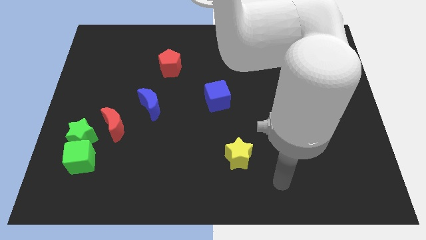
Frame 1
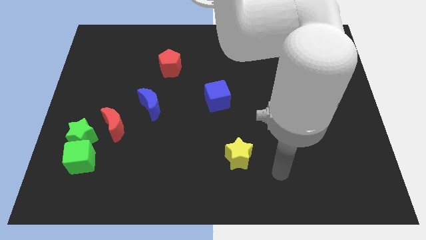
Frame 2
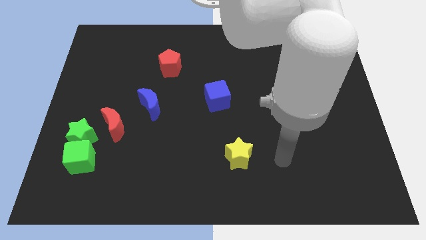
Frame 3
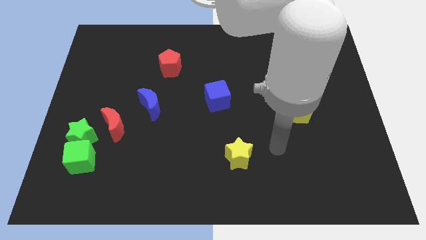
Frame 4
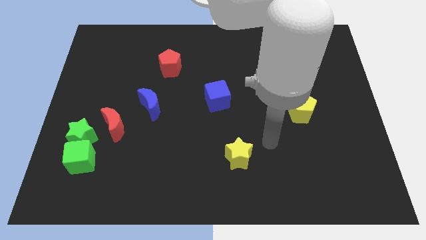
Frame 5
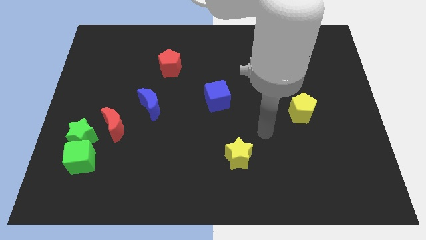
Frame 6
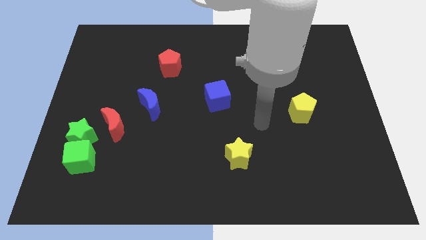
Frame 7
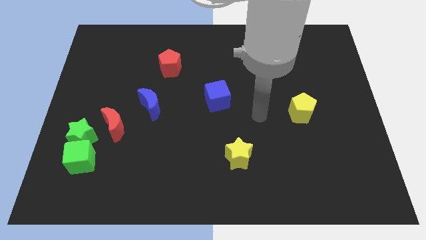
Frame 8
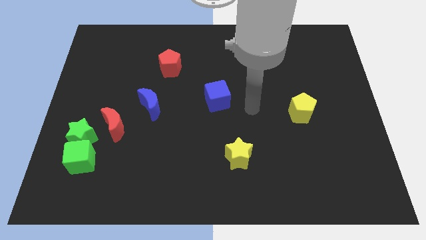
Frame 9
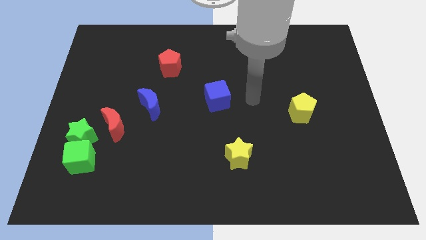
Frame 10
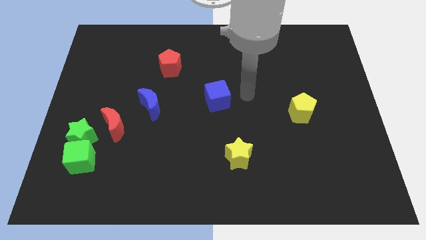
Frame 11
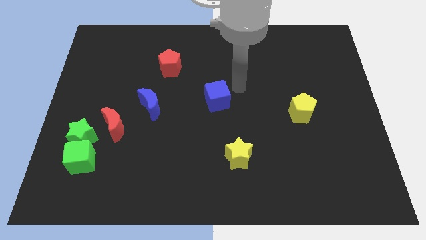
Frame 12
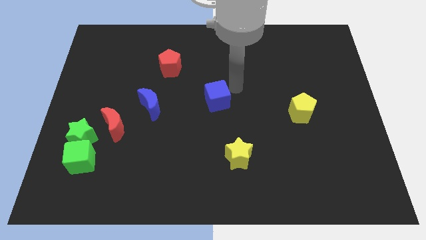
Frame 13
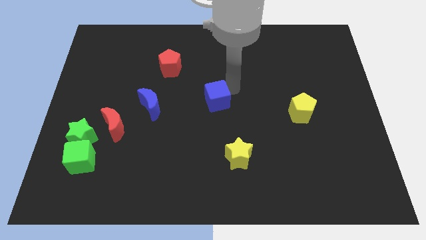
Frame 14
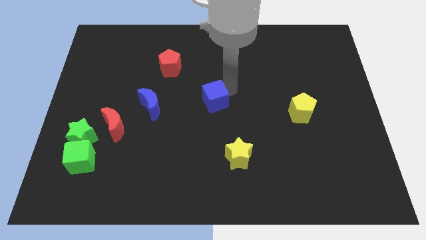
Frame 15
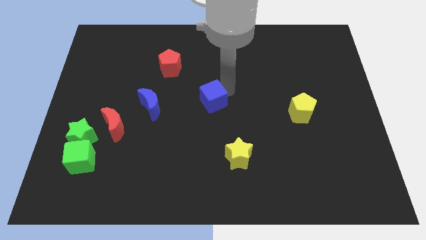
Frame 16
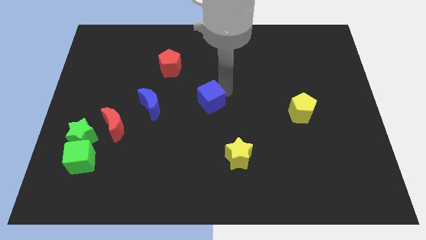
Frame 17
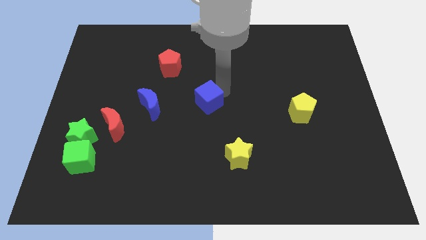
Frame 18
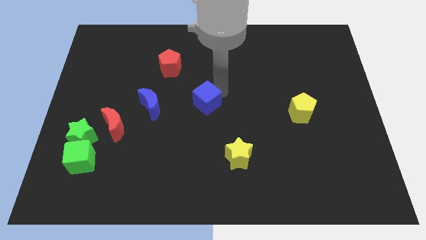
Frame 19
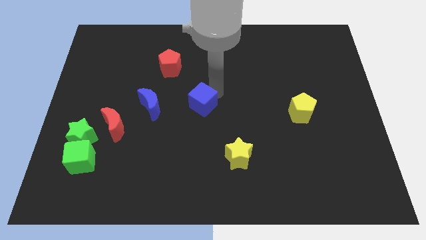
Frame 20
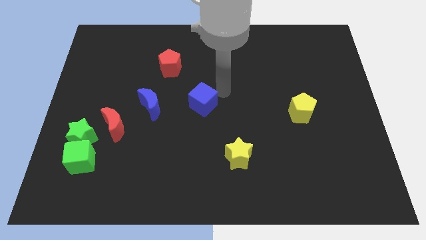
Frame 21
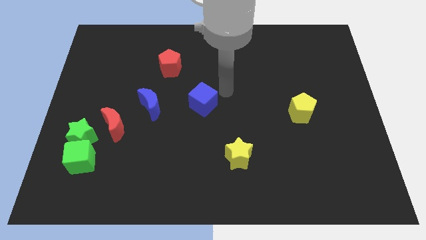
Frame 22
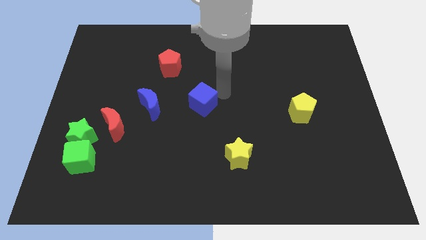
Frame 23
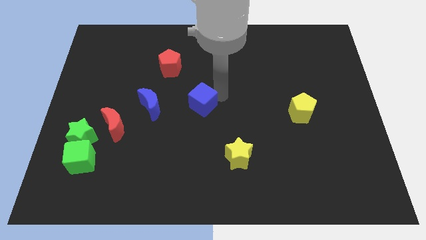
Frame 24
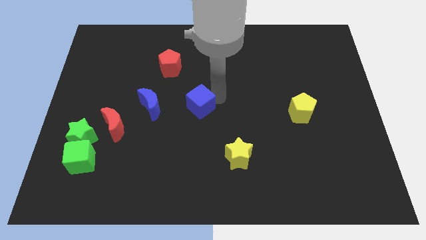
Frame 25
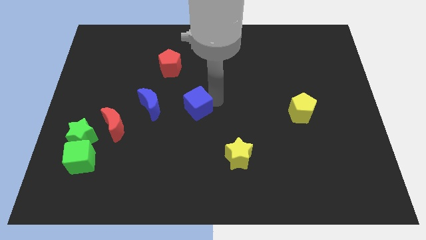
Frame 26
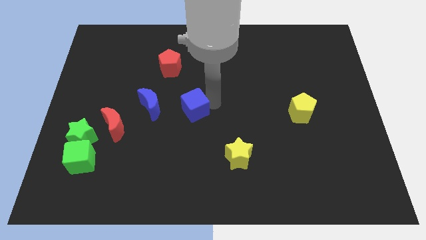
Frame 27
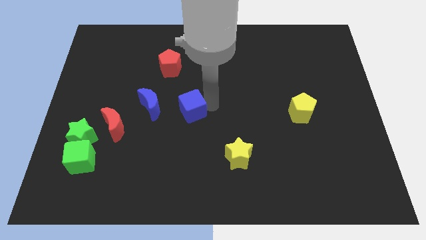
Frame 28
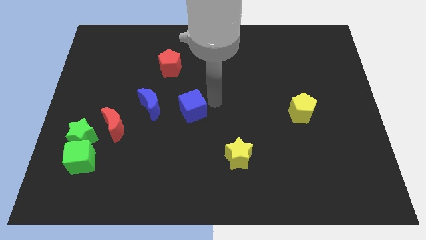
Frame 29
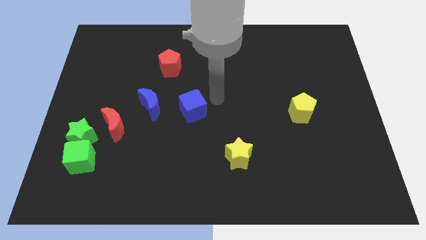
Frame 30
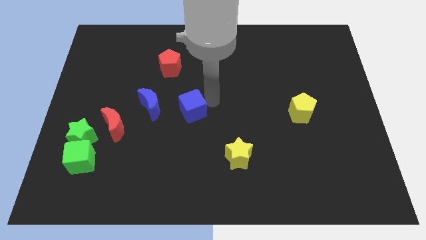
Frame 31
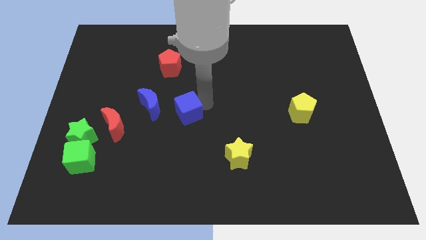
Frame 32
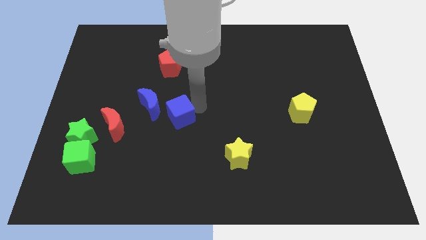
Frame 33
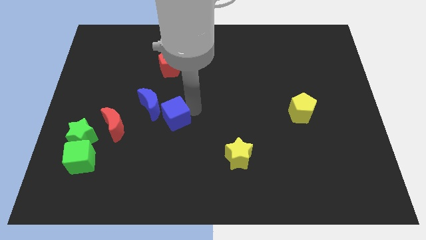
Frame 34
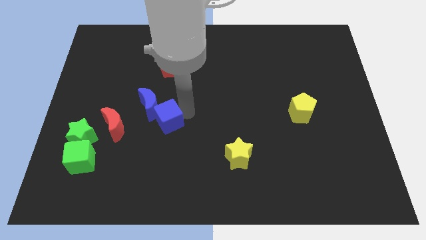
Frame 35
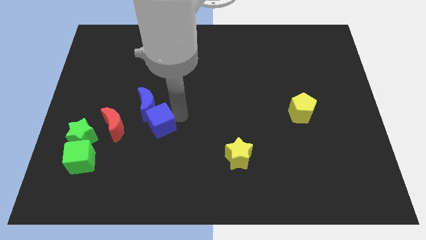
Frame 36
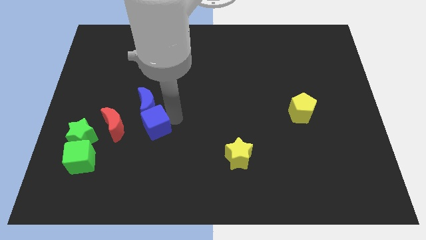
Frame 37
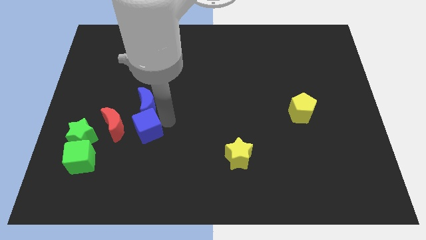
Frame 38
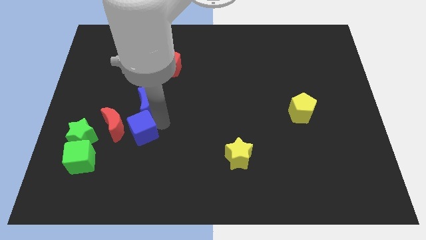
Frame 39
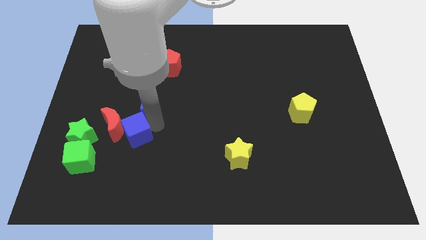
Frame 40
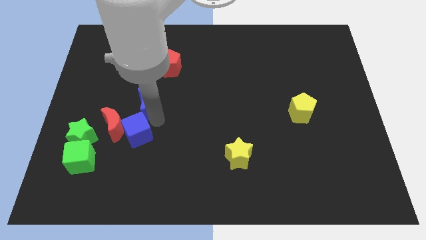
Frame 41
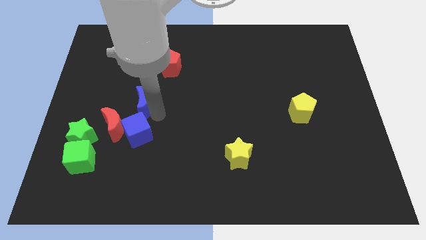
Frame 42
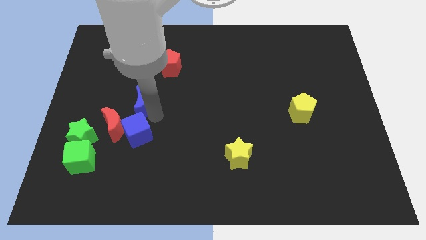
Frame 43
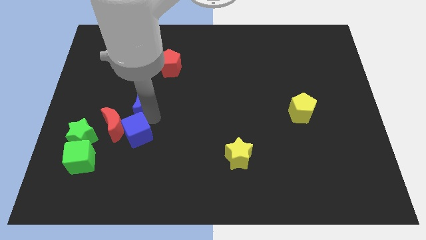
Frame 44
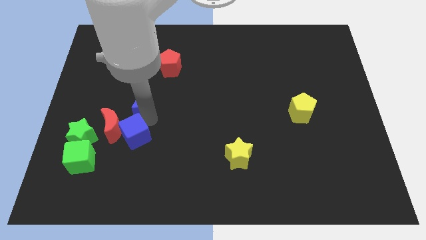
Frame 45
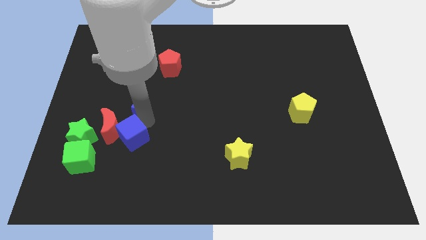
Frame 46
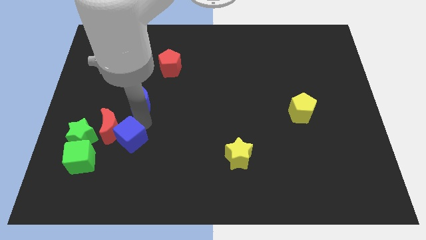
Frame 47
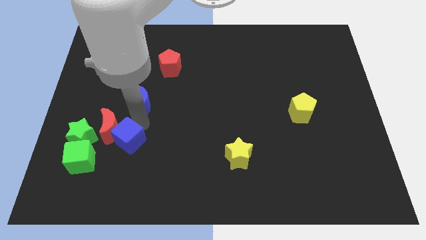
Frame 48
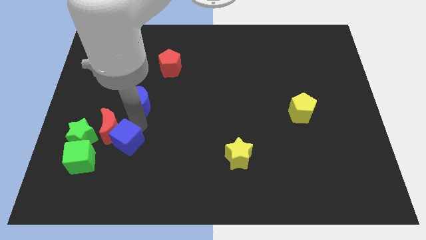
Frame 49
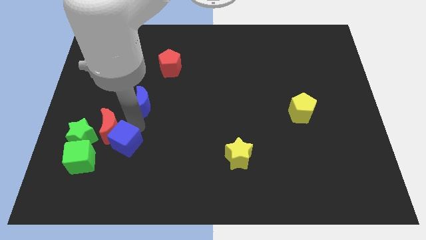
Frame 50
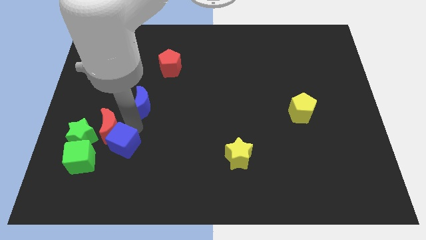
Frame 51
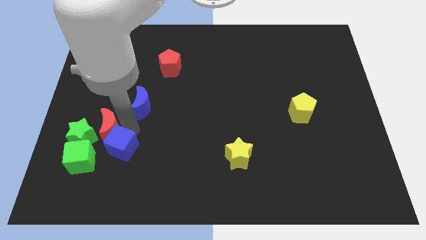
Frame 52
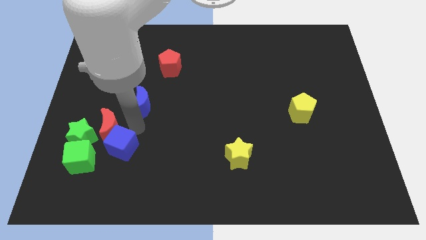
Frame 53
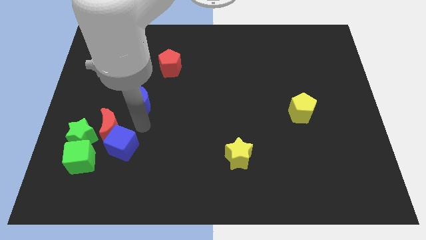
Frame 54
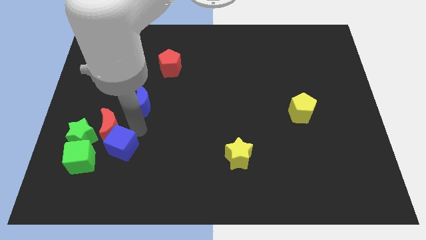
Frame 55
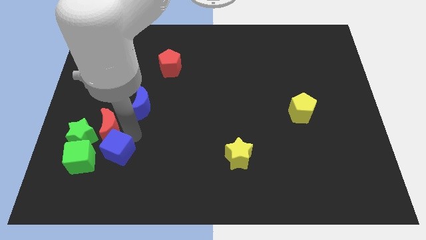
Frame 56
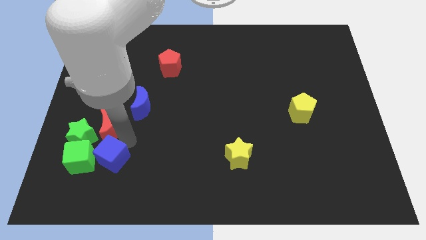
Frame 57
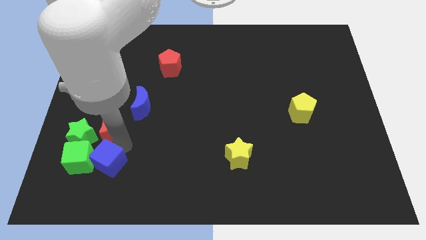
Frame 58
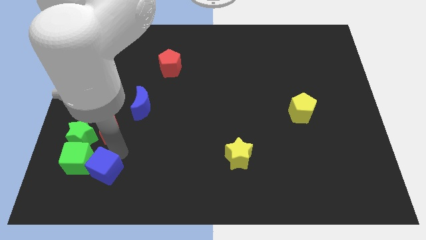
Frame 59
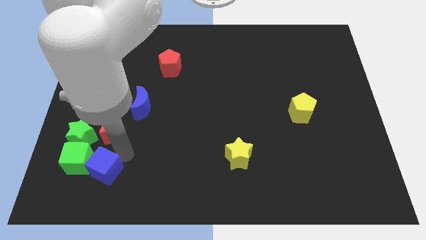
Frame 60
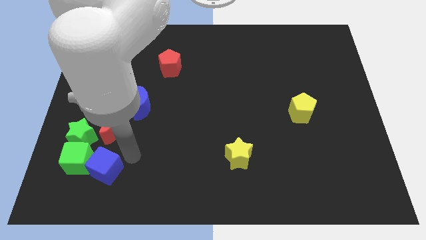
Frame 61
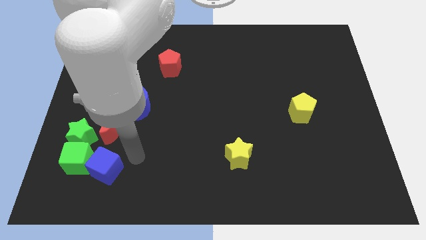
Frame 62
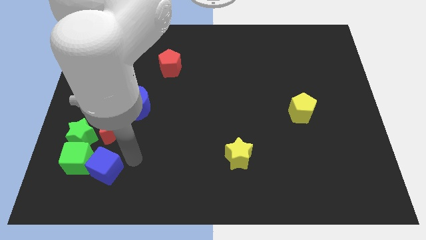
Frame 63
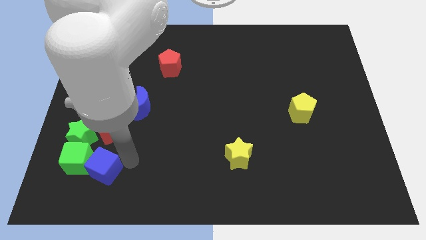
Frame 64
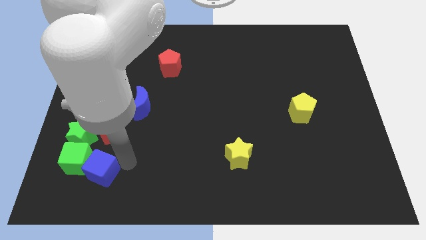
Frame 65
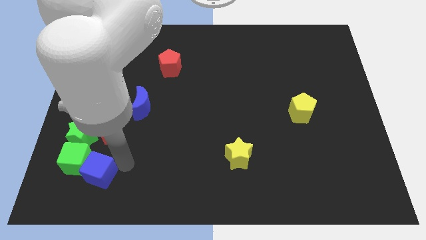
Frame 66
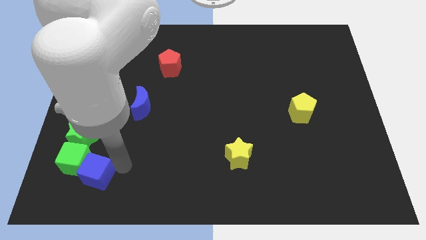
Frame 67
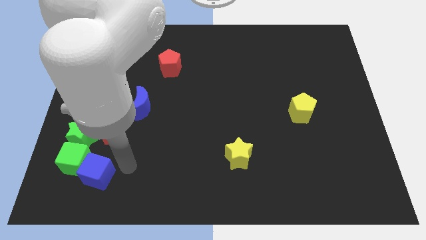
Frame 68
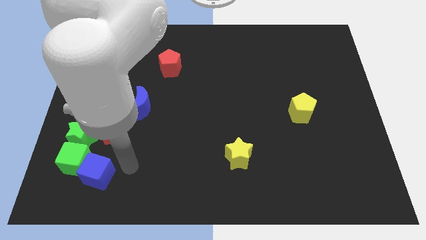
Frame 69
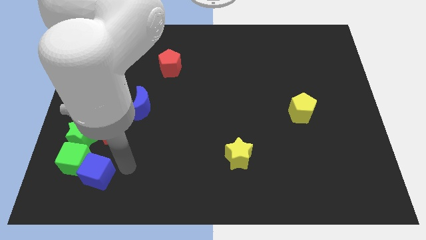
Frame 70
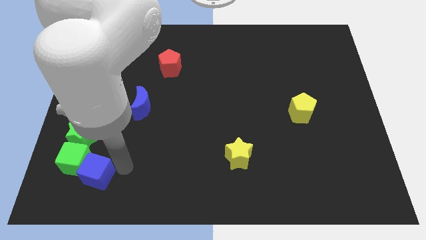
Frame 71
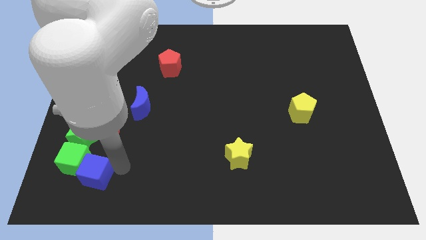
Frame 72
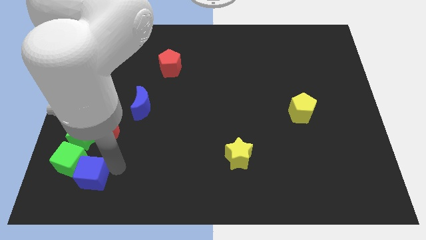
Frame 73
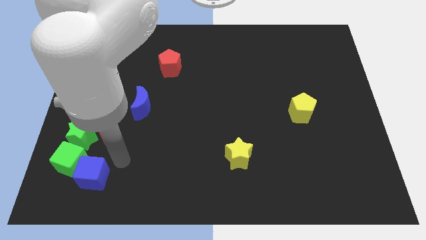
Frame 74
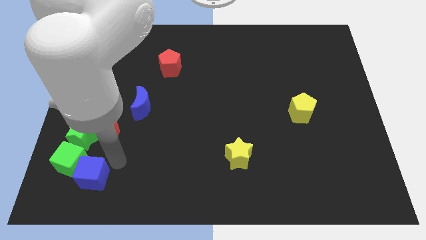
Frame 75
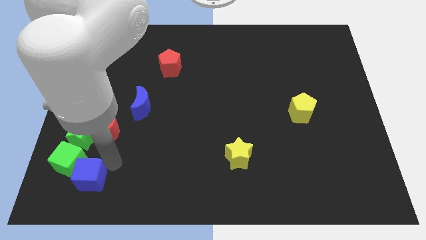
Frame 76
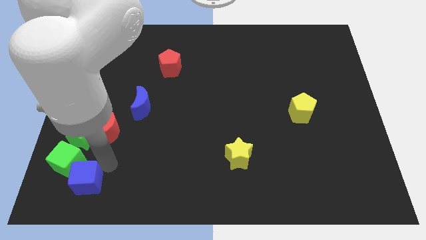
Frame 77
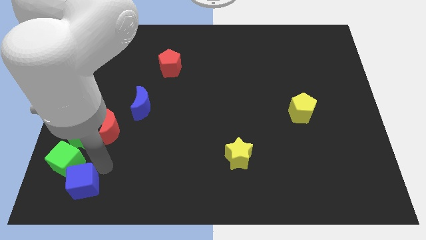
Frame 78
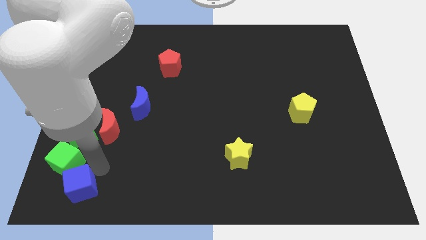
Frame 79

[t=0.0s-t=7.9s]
move the blue cube to the bottom left of the board
